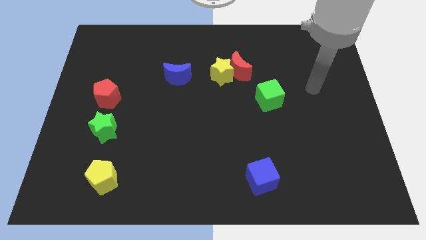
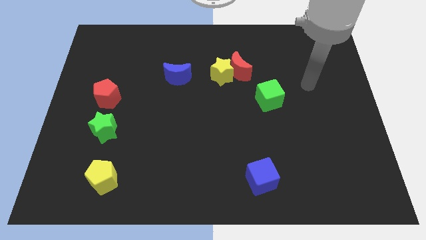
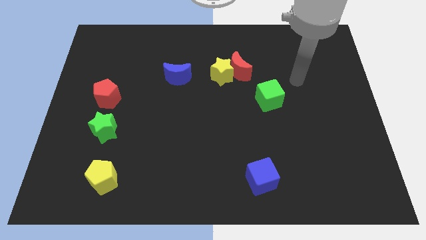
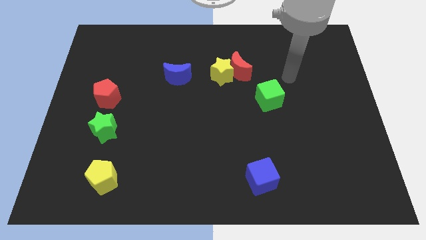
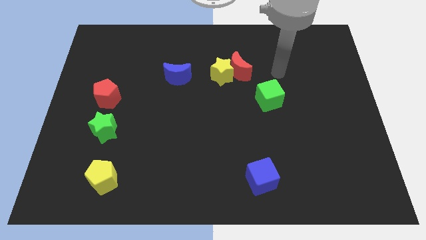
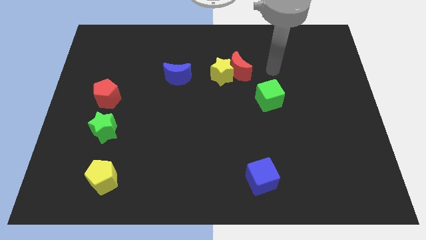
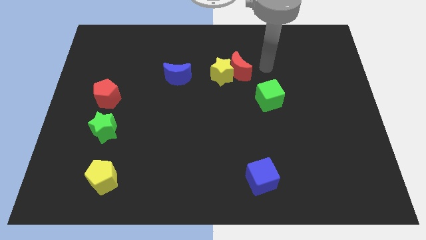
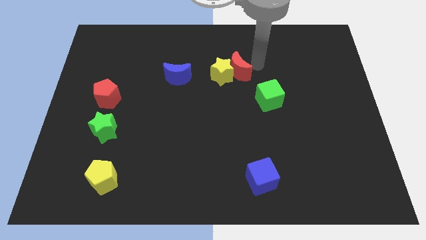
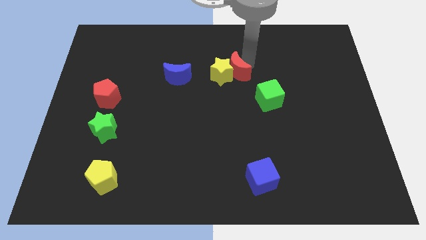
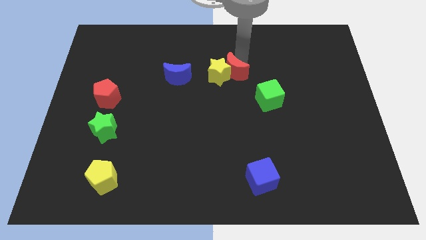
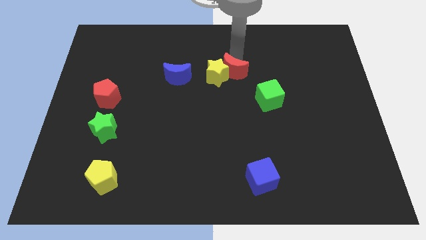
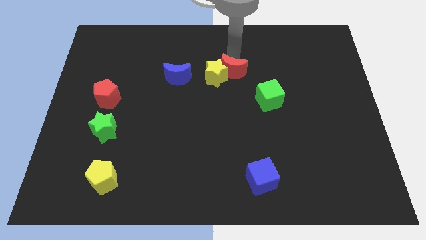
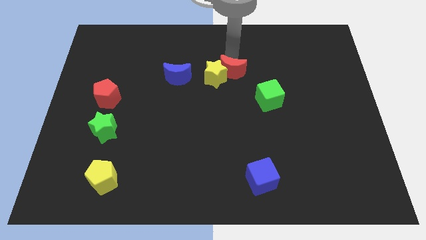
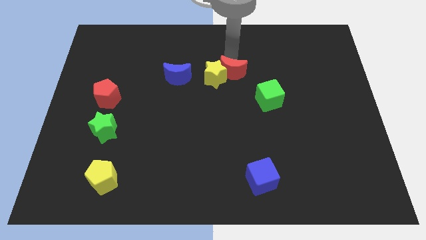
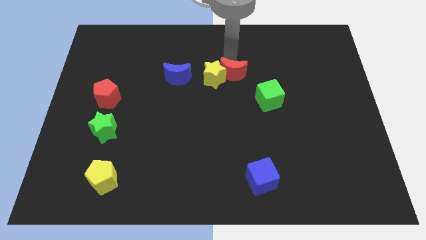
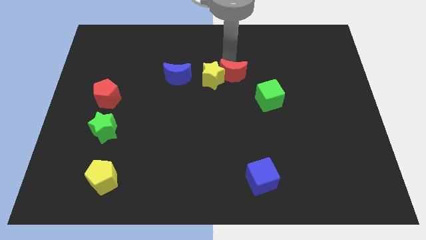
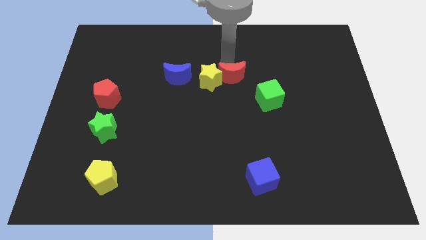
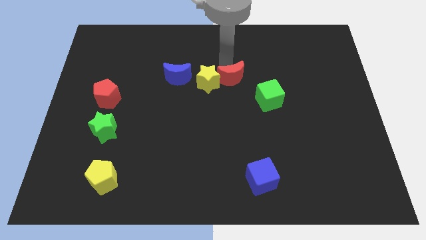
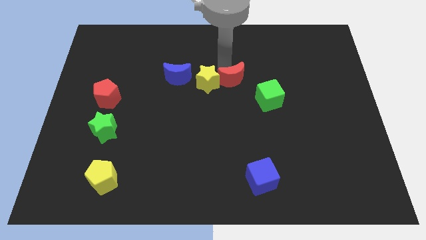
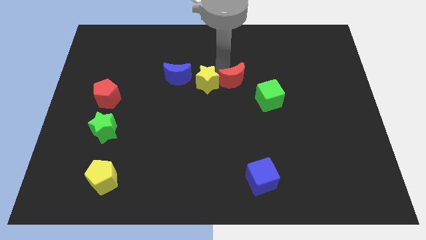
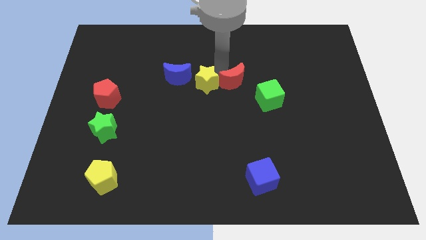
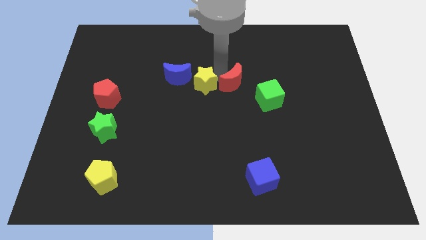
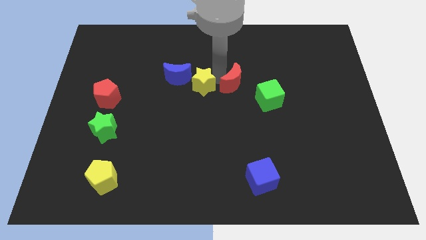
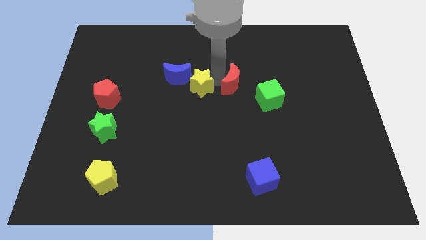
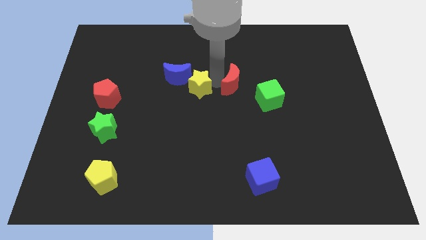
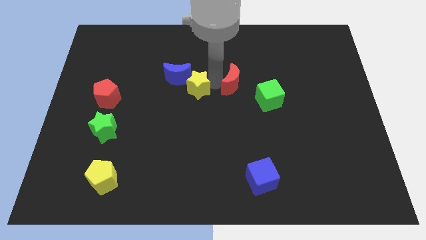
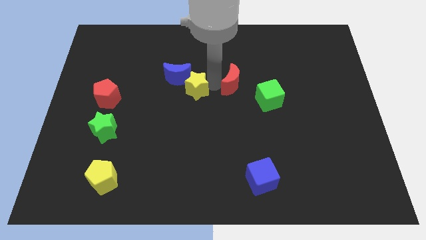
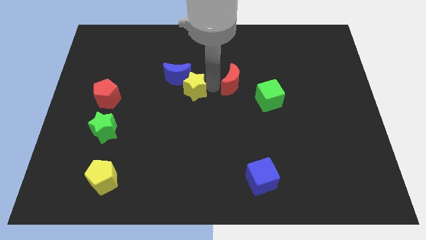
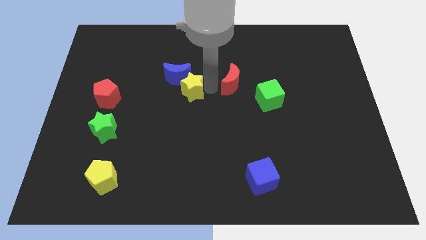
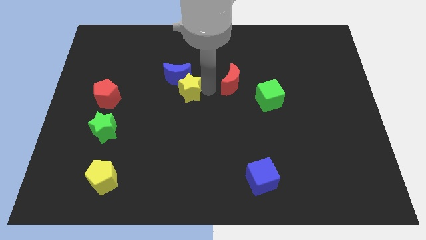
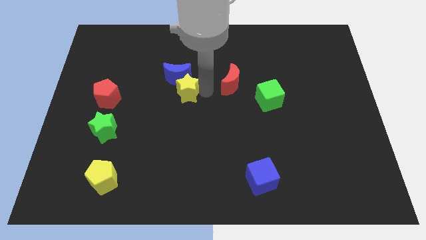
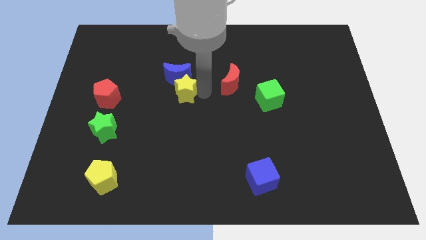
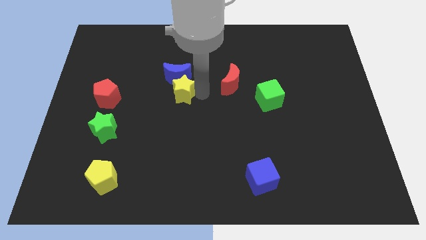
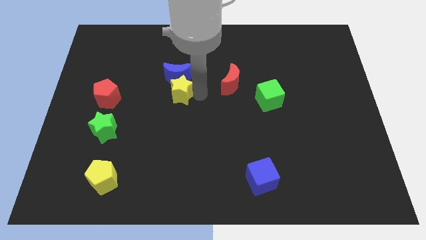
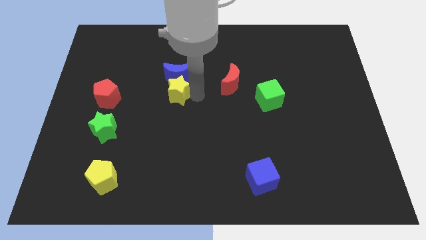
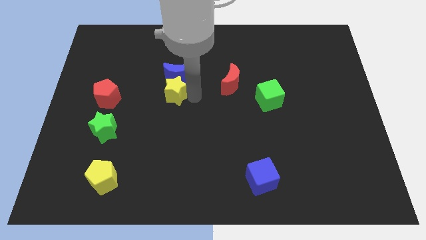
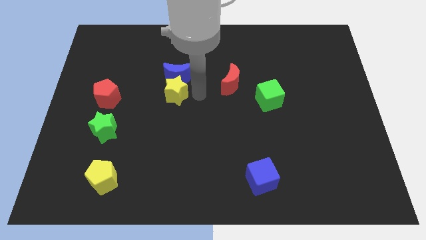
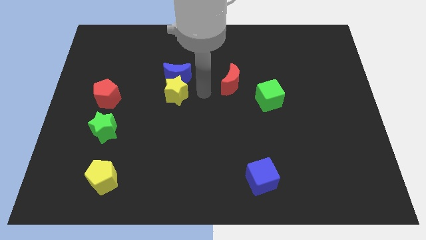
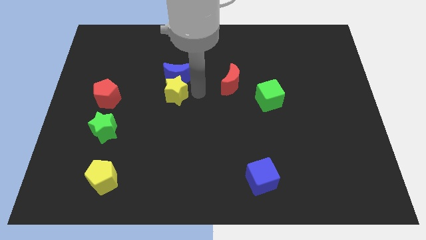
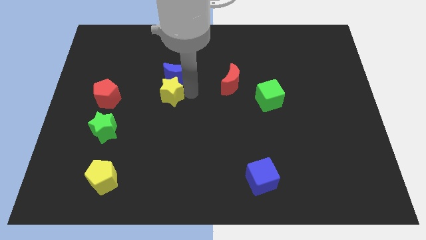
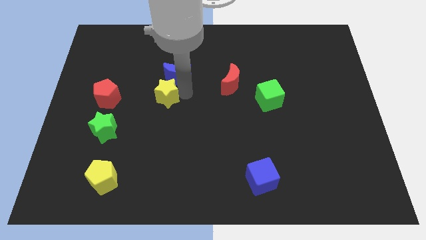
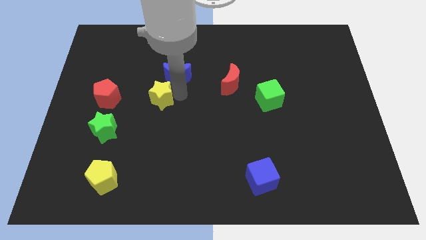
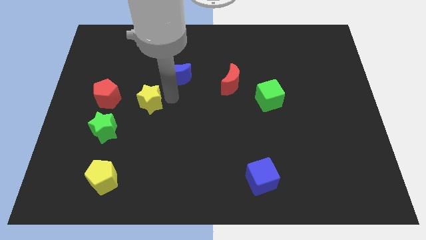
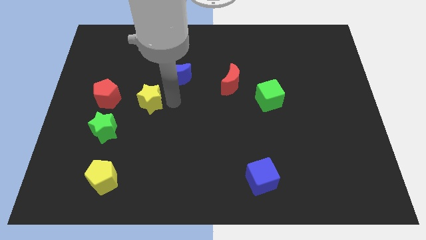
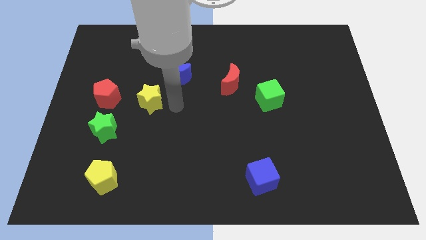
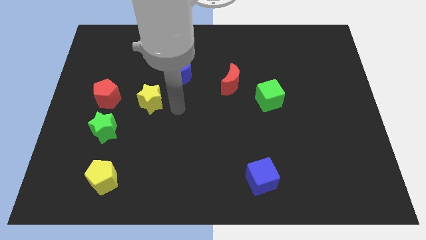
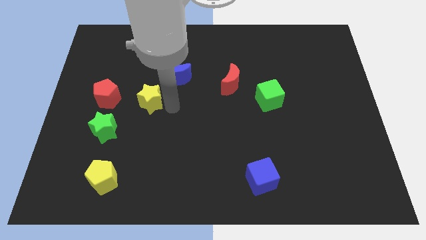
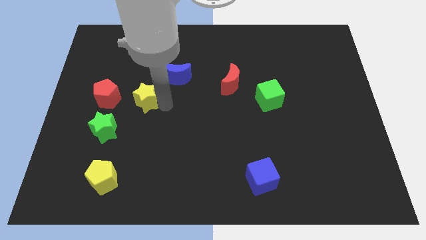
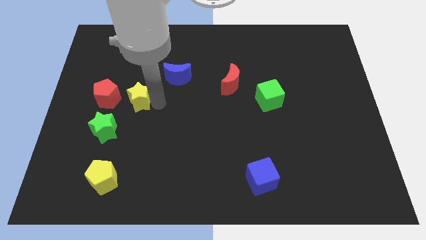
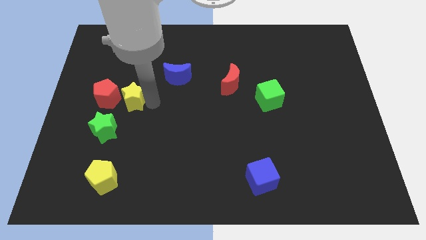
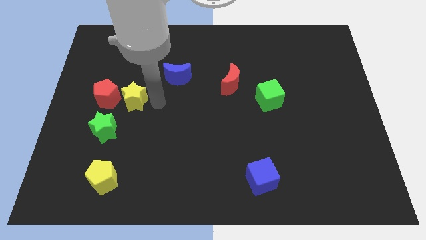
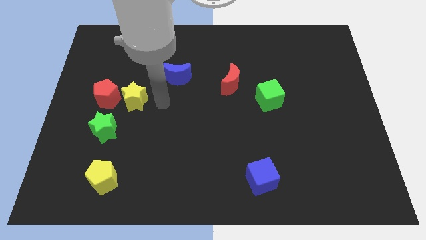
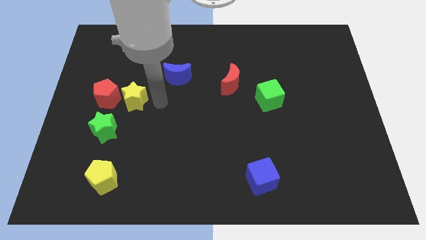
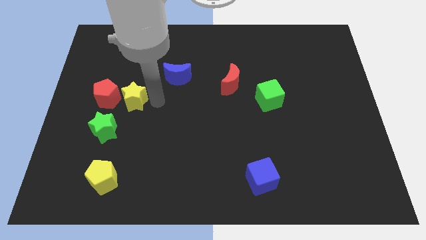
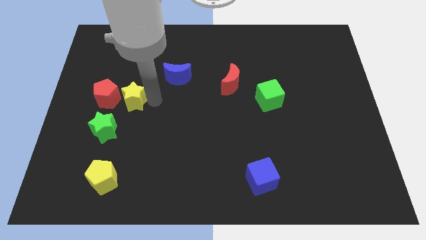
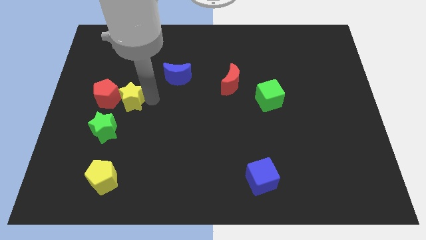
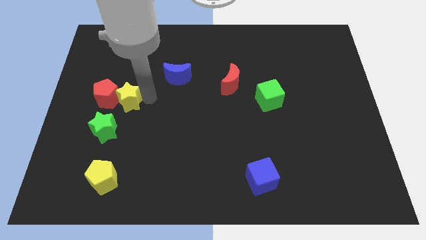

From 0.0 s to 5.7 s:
push the yellow star to the red pentagon

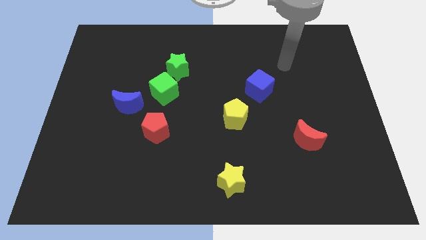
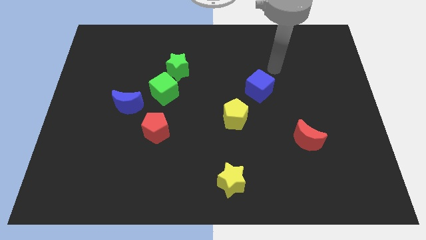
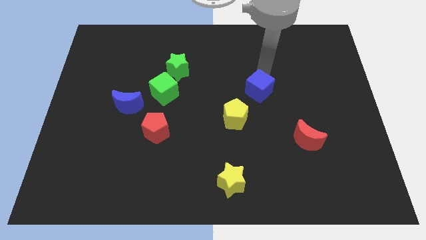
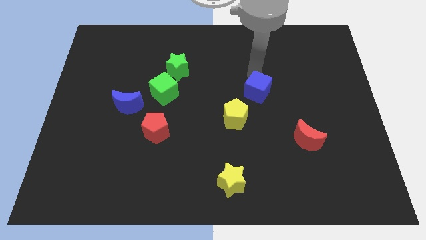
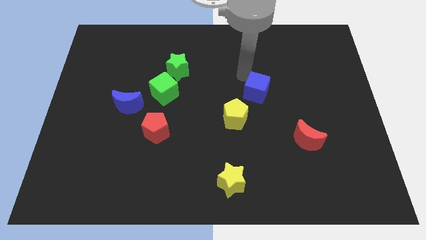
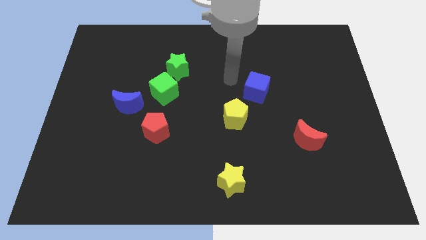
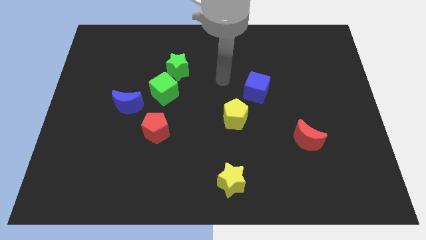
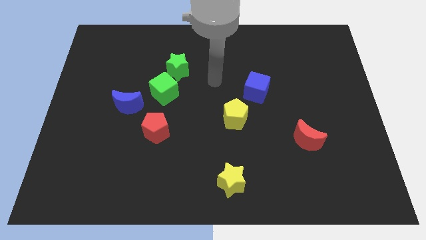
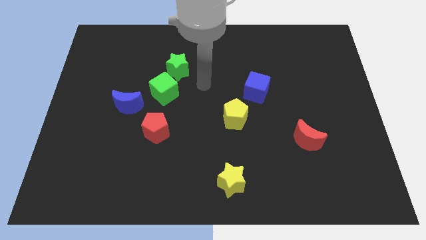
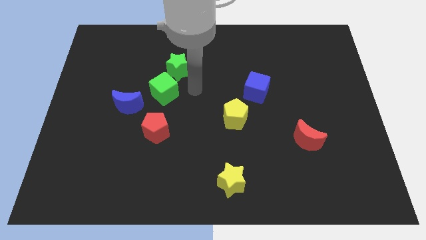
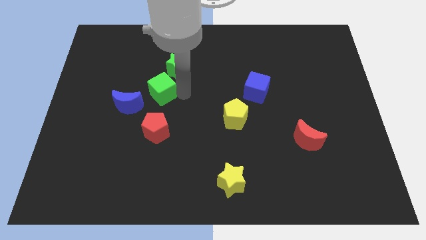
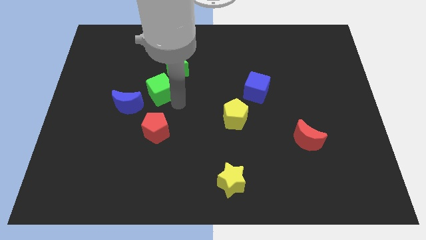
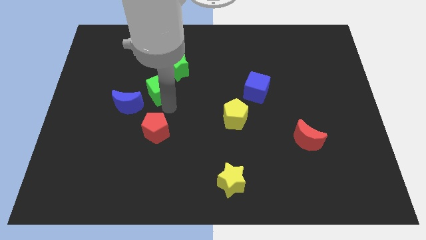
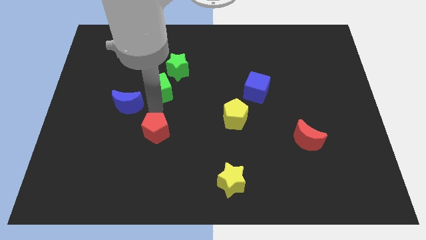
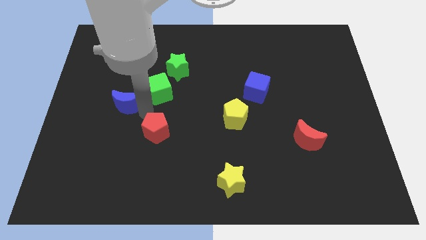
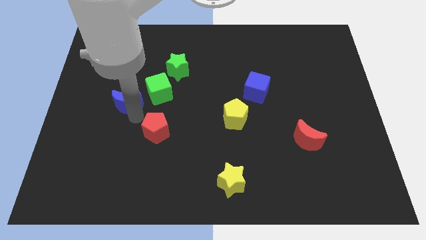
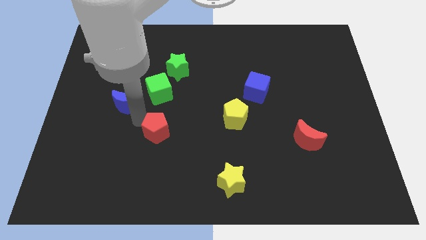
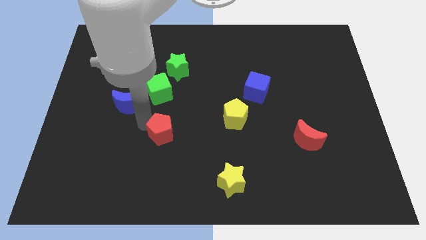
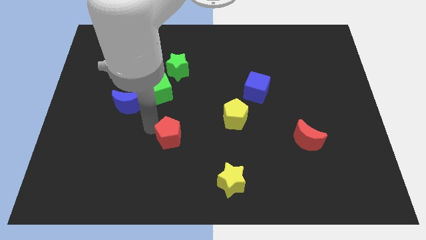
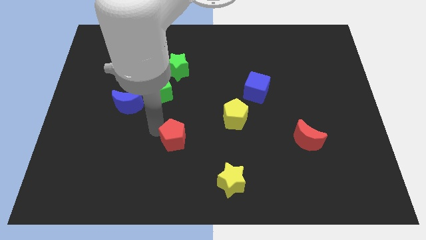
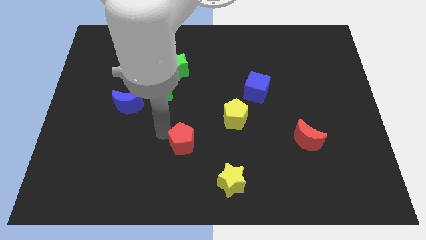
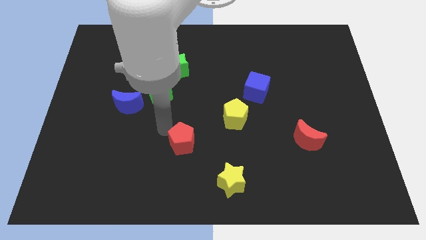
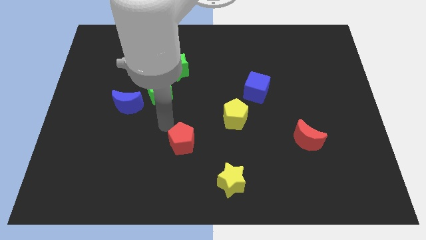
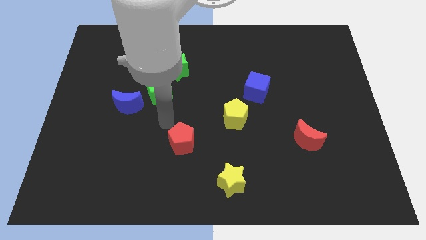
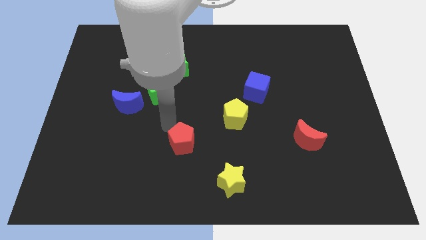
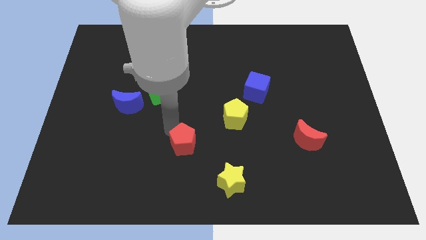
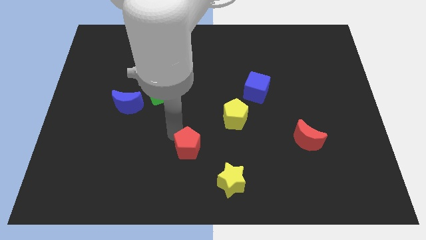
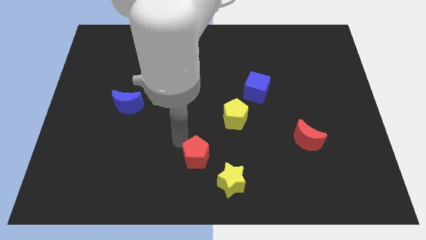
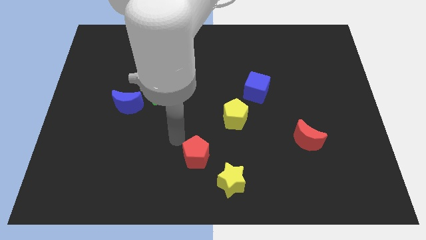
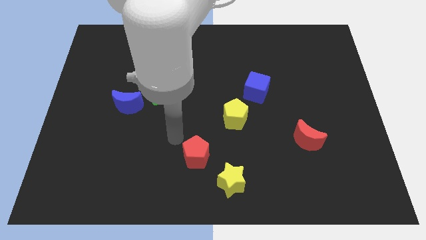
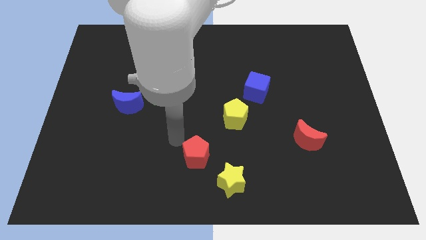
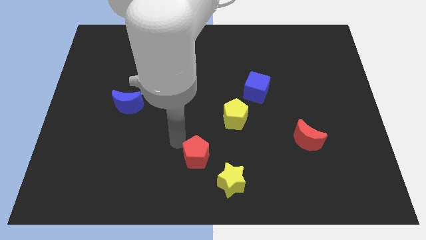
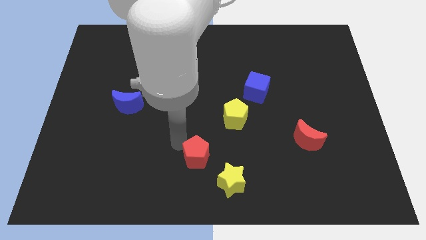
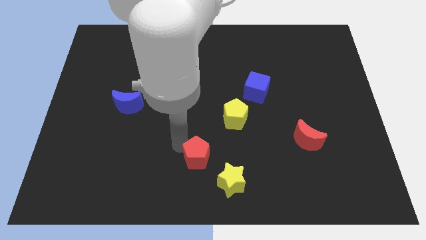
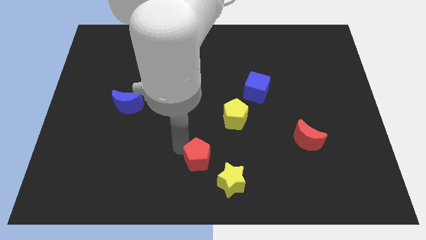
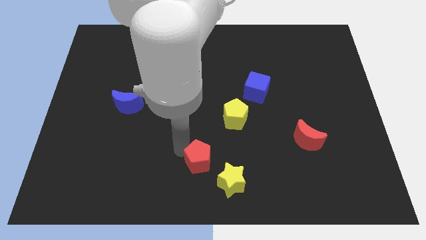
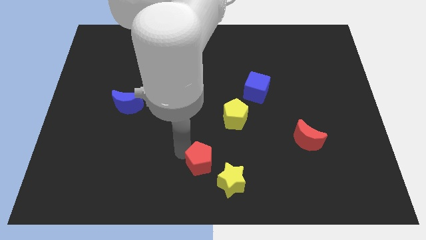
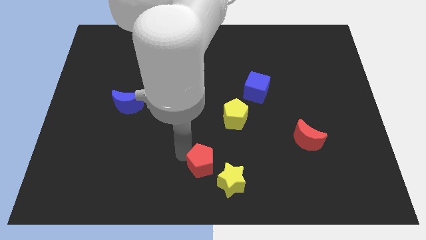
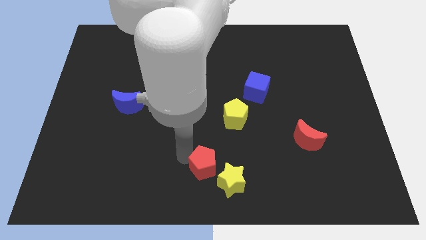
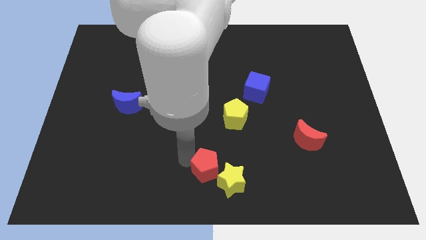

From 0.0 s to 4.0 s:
slide the red pentagon next to the yellow star
